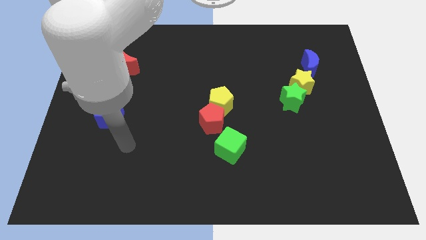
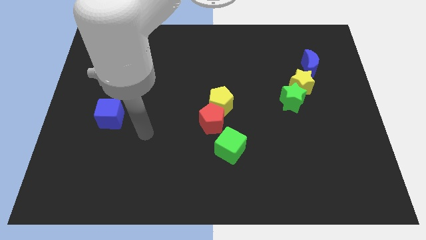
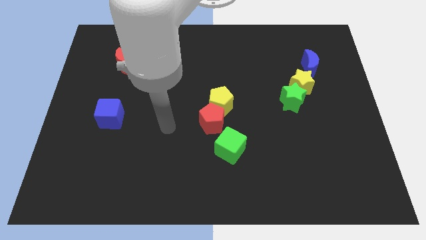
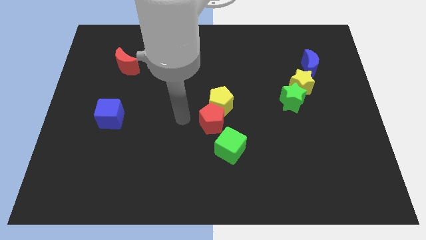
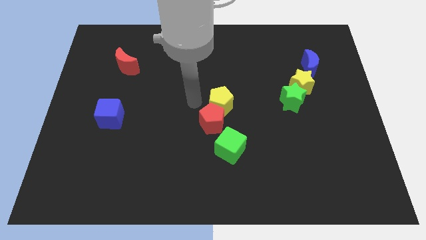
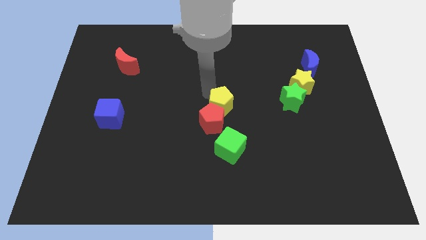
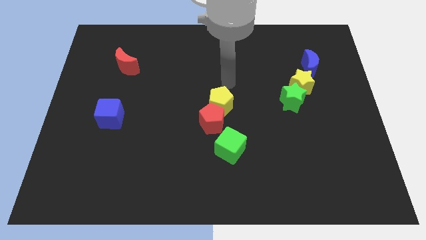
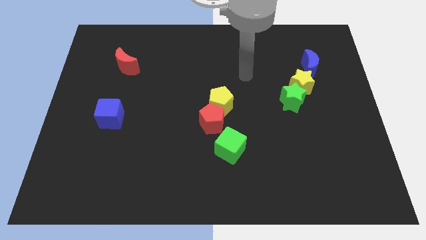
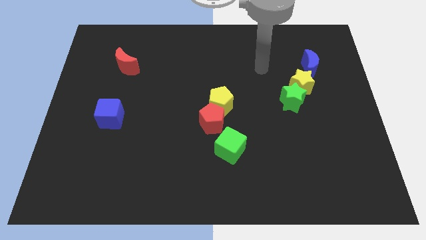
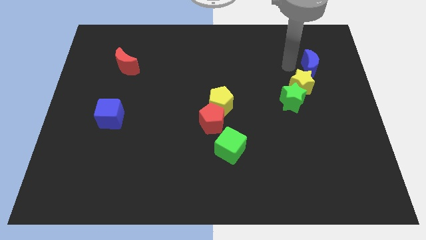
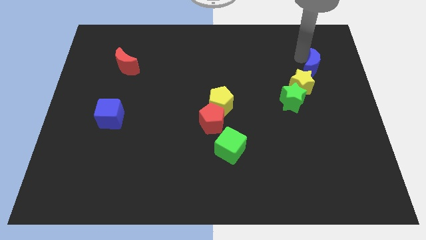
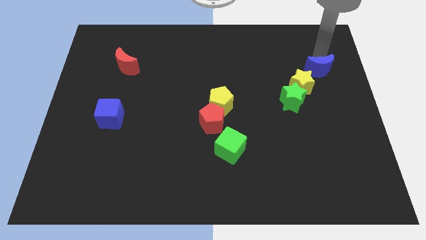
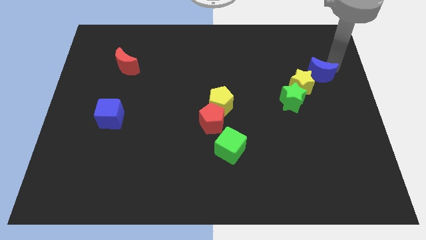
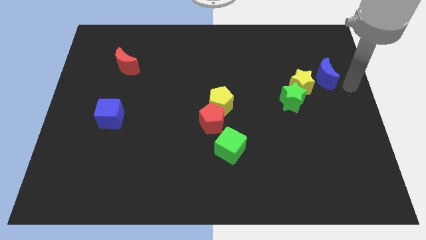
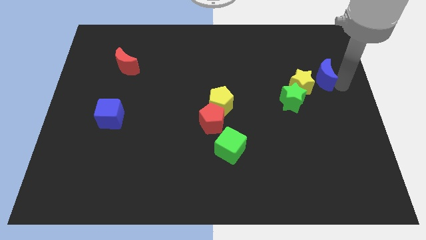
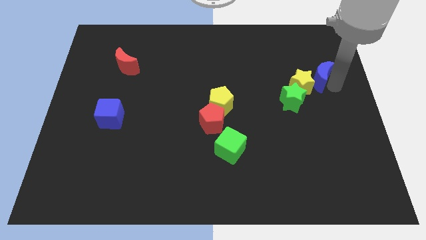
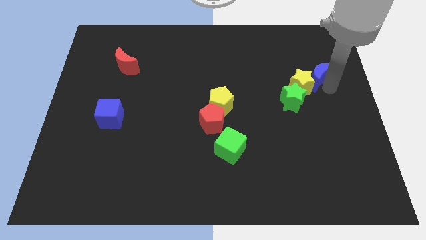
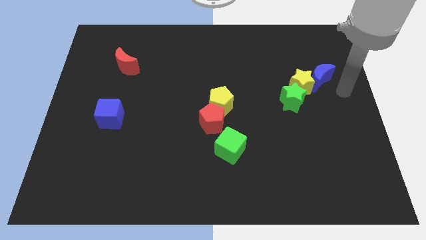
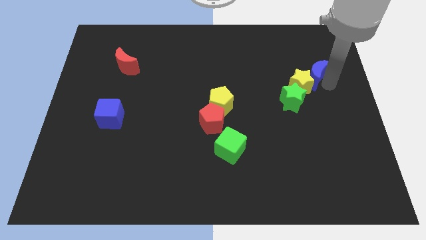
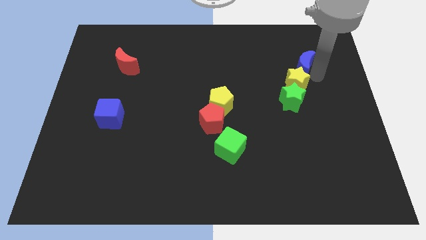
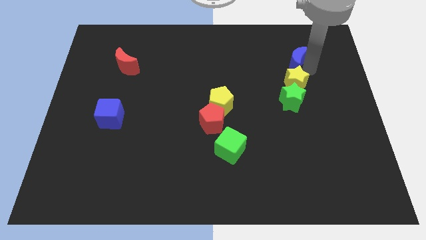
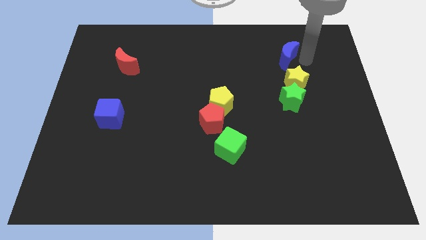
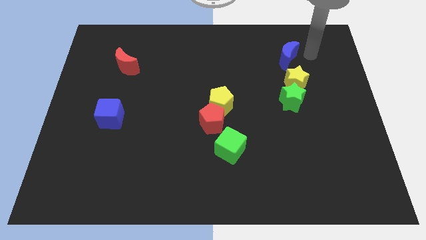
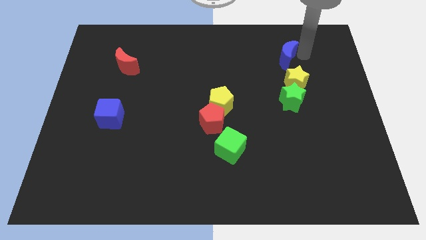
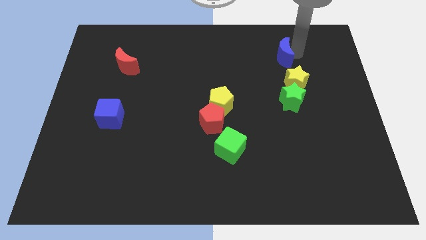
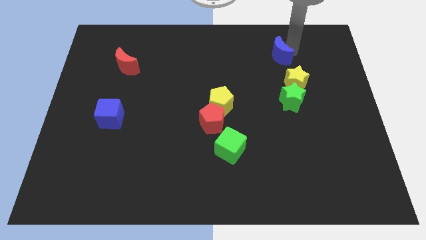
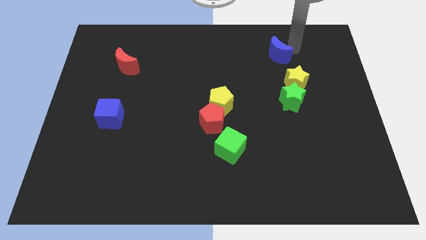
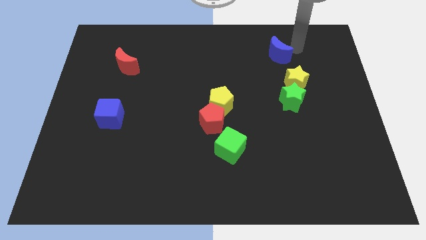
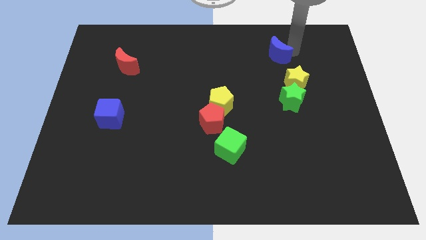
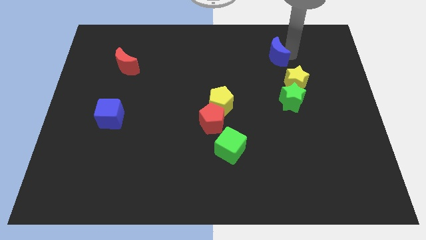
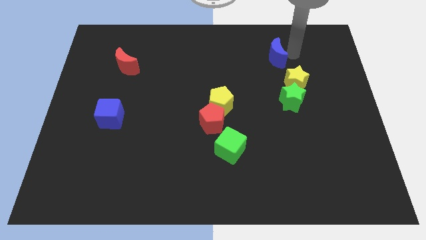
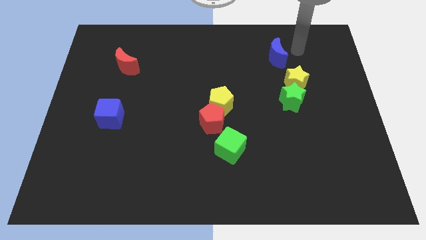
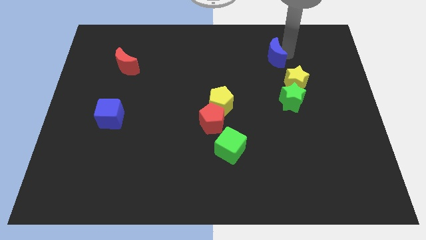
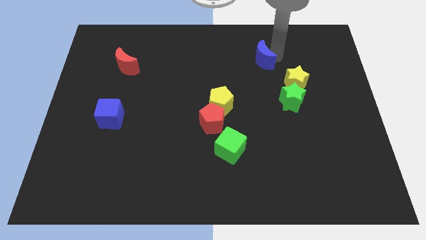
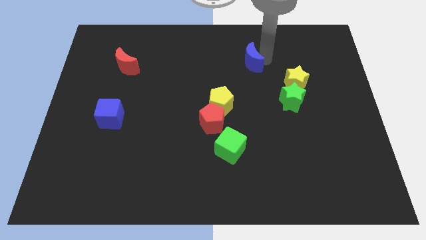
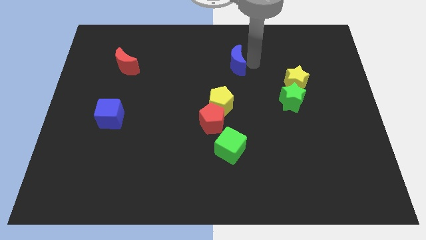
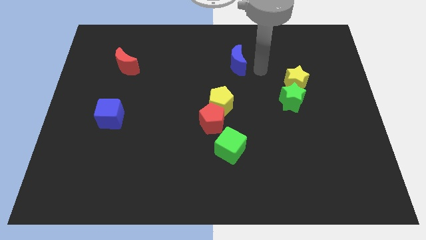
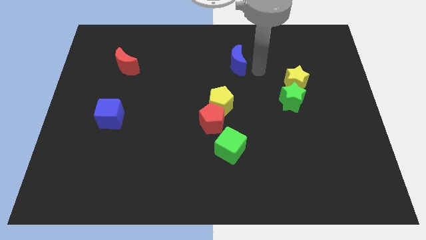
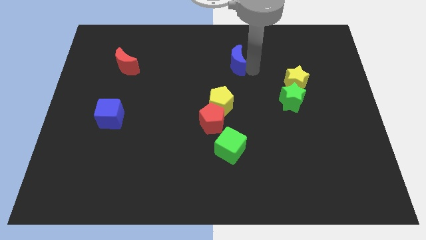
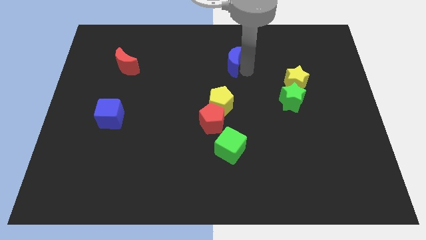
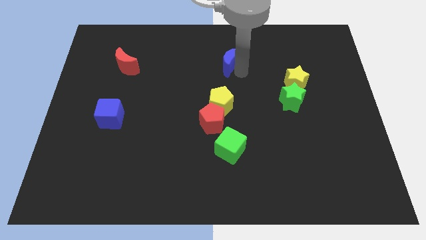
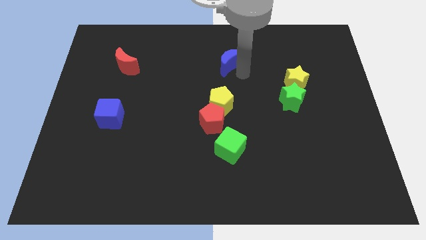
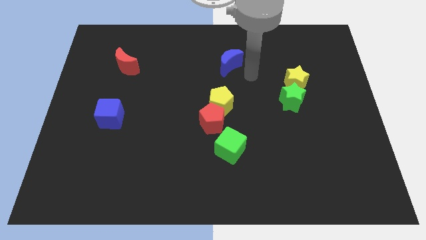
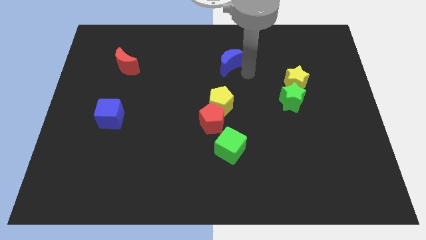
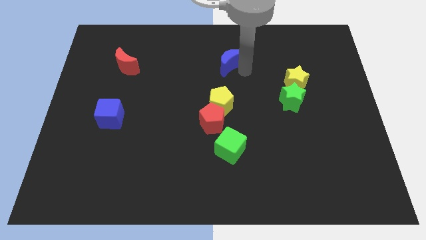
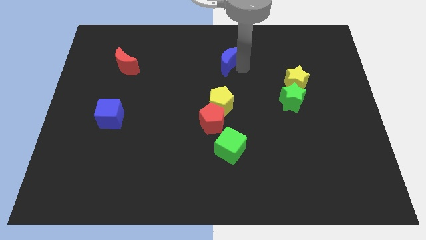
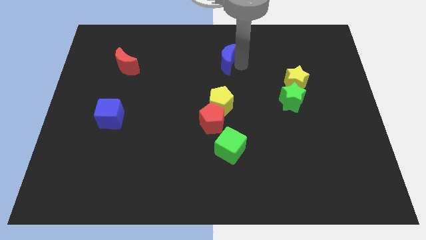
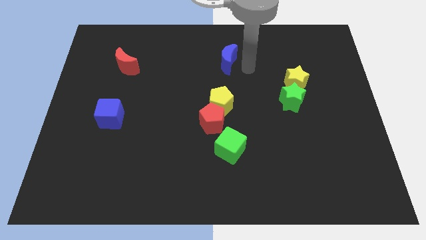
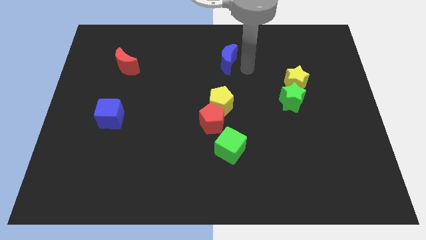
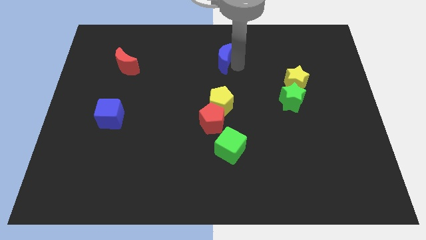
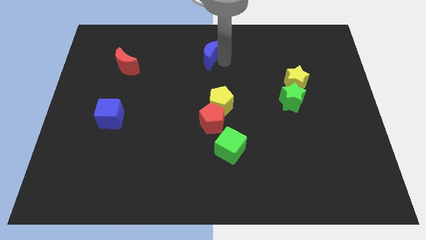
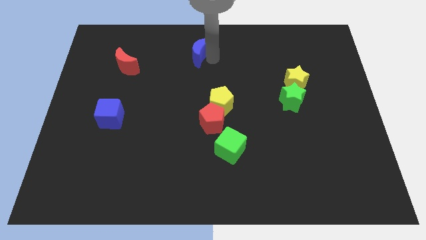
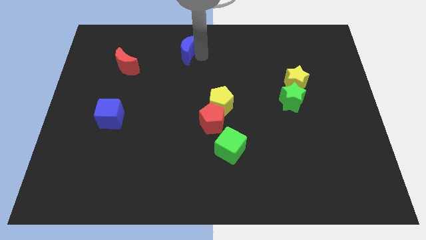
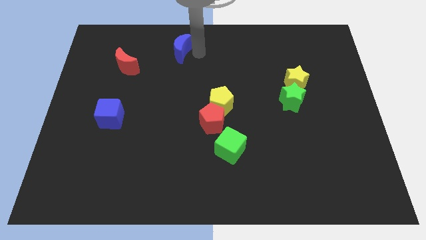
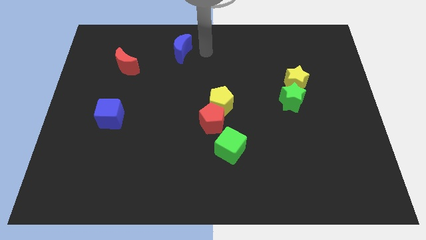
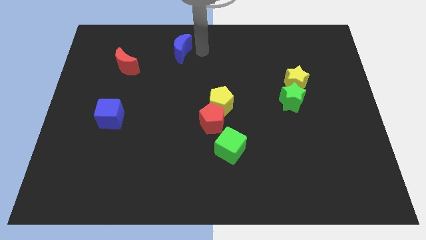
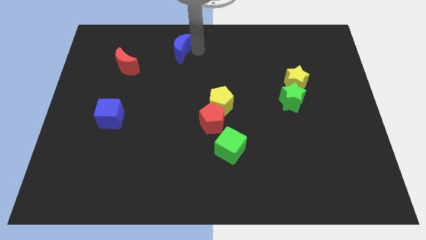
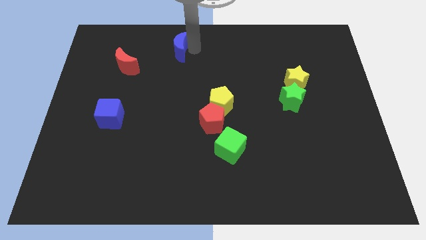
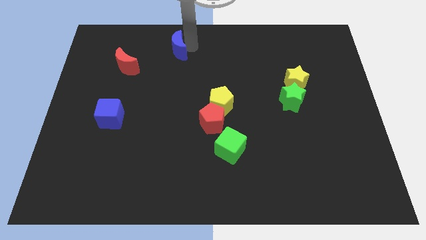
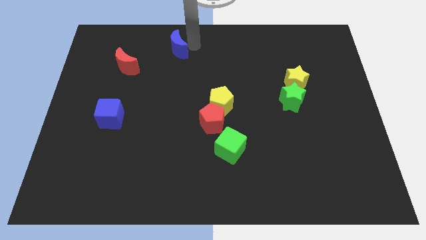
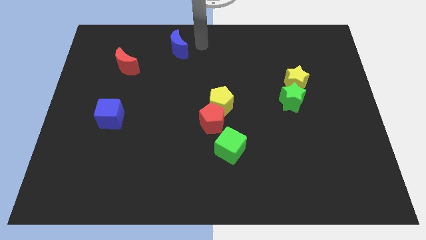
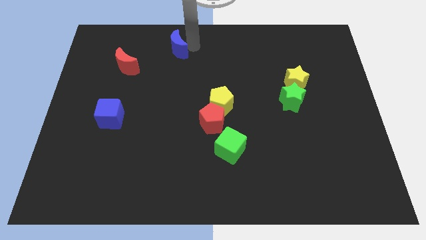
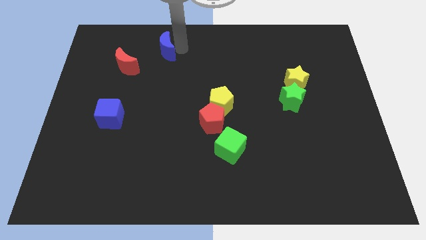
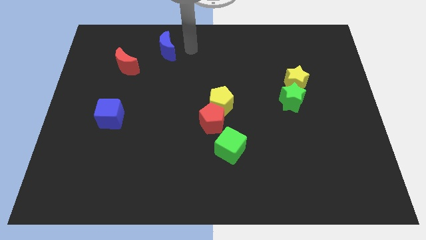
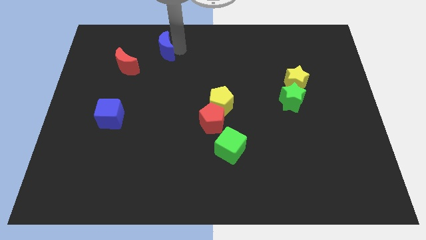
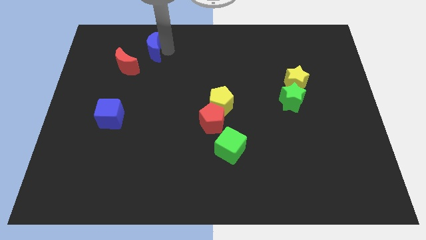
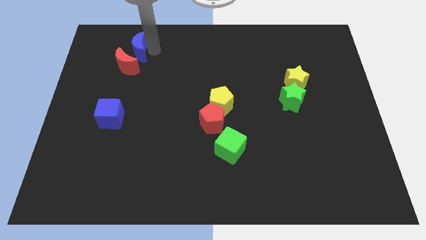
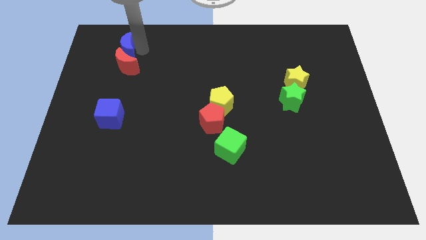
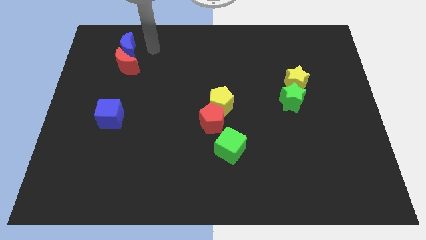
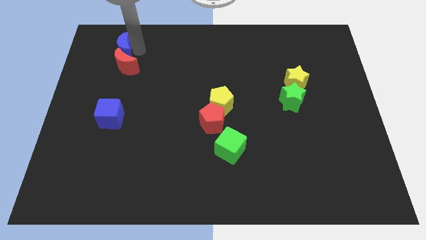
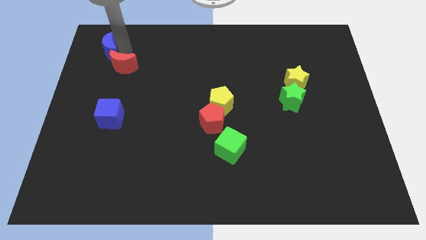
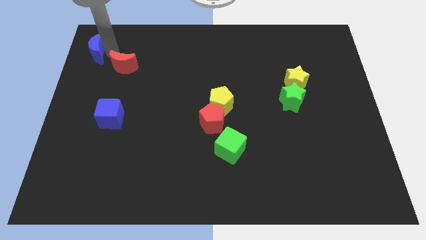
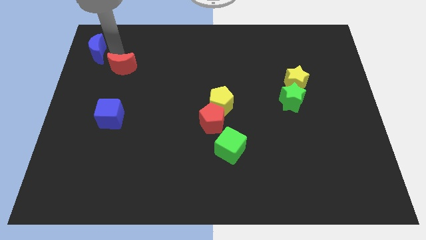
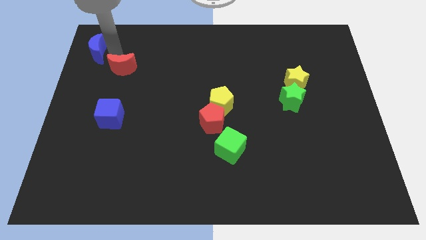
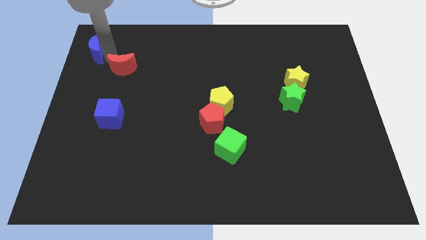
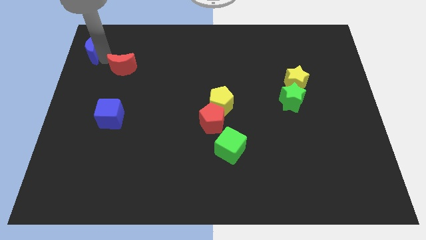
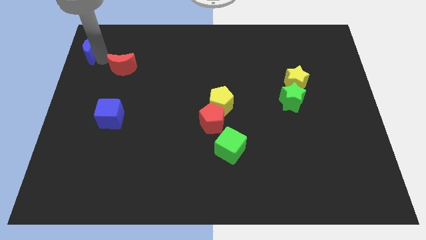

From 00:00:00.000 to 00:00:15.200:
slide the blue moon to the top left corner
